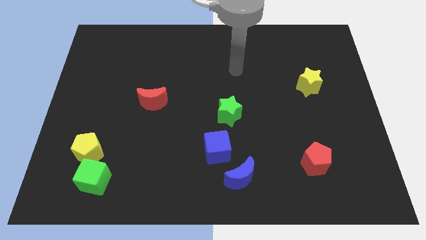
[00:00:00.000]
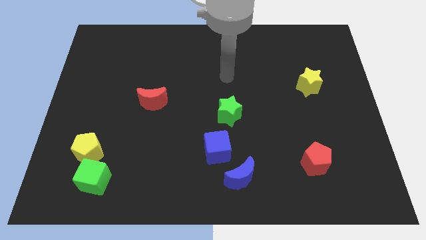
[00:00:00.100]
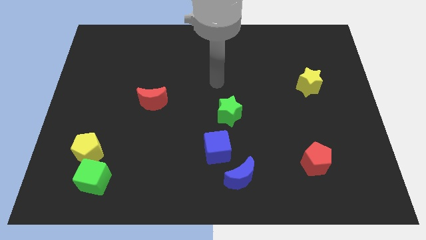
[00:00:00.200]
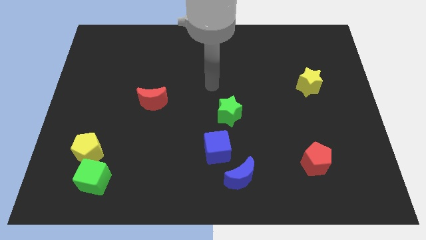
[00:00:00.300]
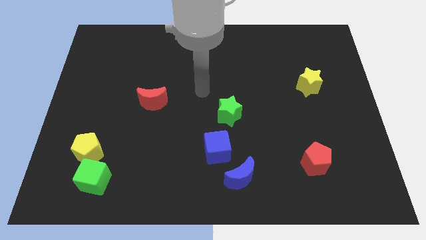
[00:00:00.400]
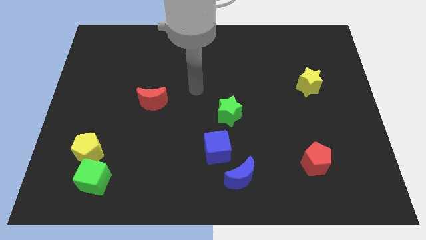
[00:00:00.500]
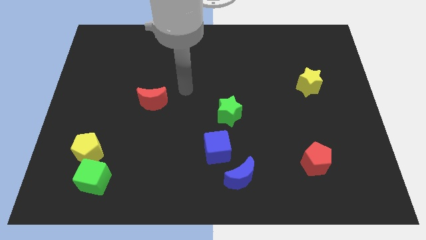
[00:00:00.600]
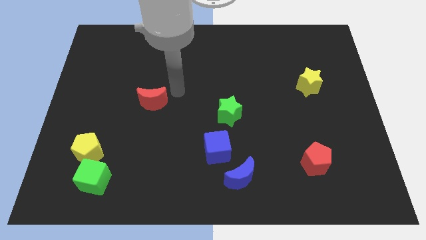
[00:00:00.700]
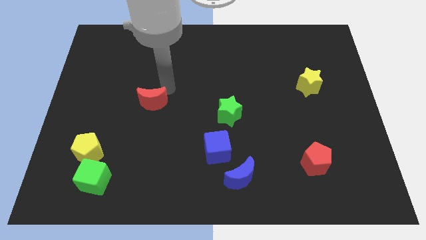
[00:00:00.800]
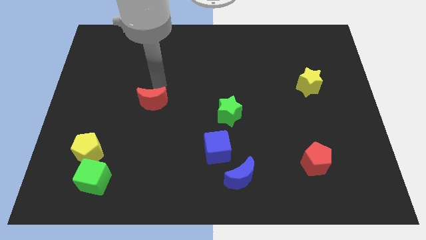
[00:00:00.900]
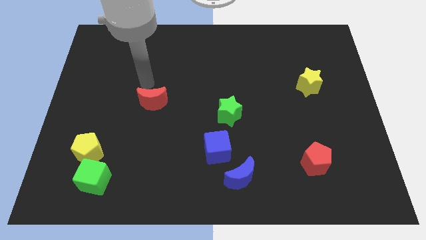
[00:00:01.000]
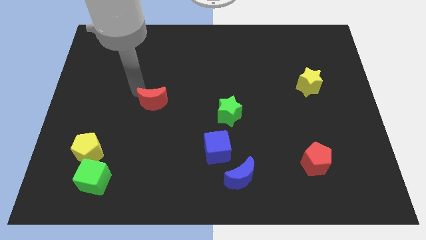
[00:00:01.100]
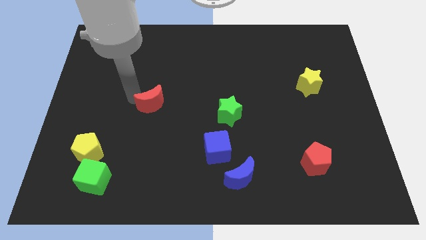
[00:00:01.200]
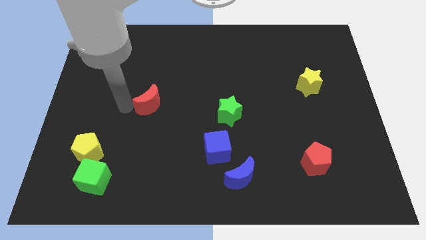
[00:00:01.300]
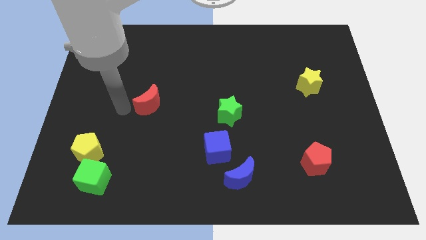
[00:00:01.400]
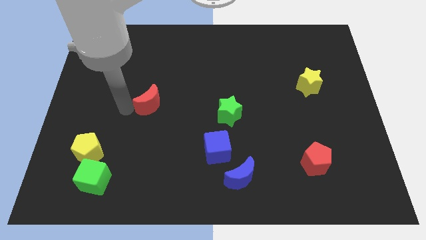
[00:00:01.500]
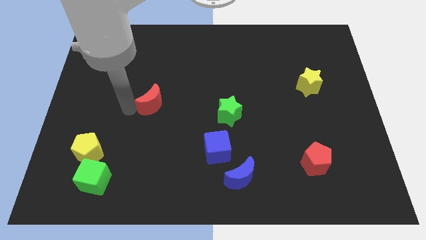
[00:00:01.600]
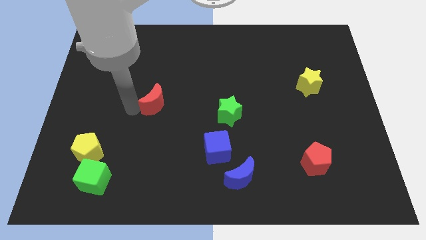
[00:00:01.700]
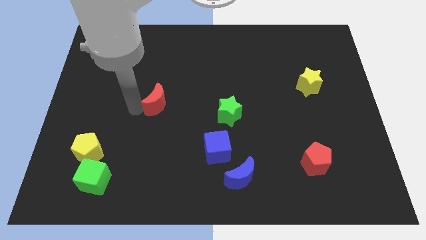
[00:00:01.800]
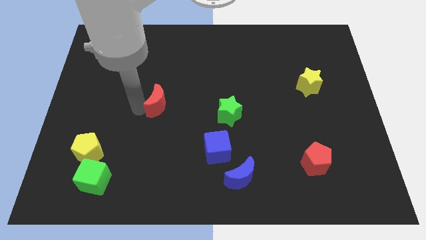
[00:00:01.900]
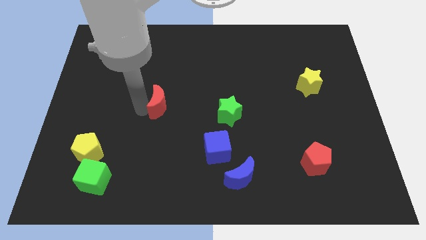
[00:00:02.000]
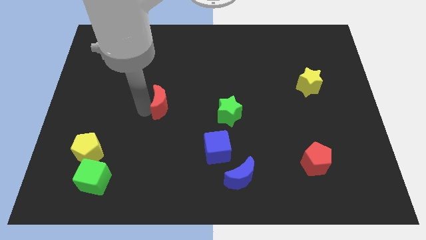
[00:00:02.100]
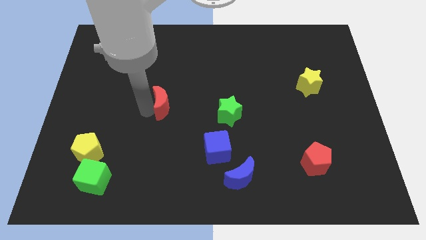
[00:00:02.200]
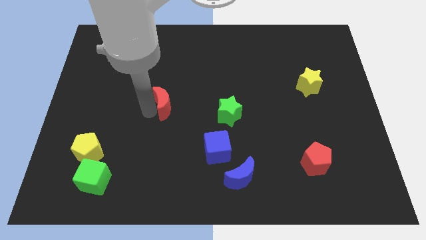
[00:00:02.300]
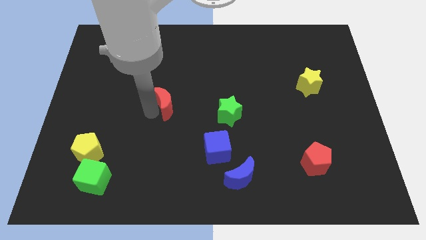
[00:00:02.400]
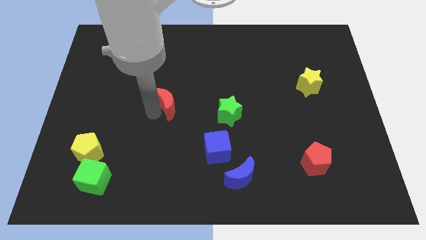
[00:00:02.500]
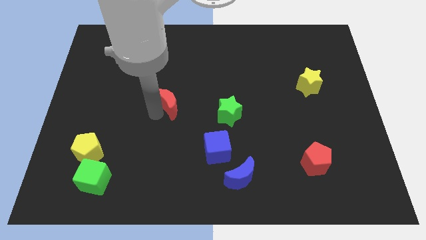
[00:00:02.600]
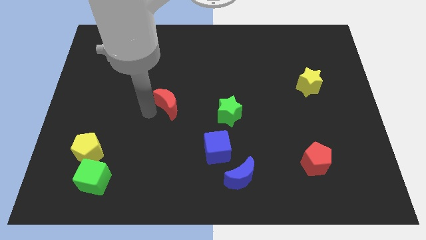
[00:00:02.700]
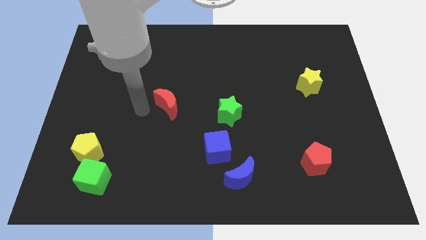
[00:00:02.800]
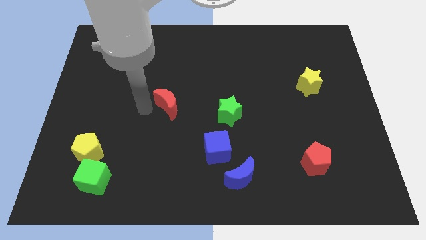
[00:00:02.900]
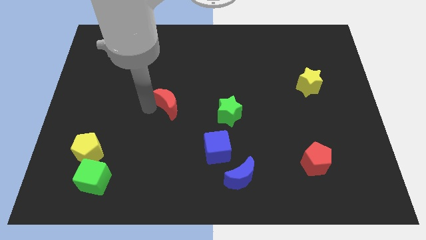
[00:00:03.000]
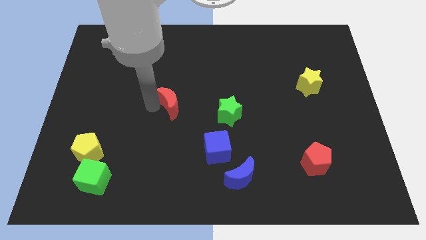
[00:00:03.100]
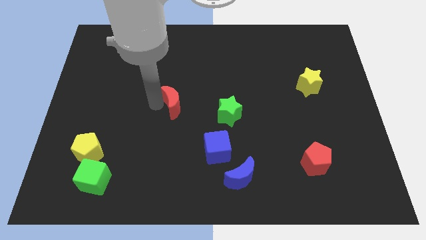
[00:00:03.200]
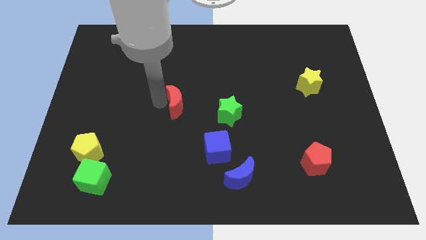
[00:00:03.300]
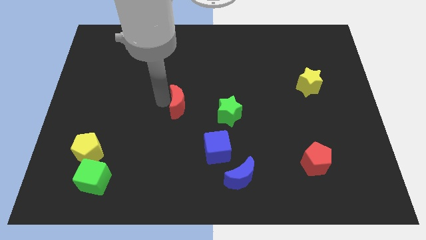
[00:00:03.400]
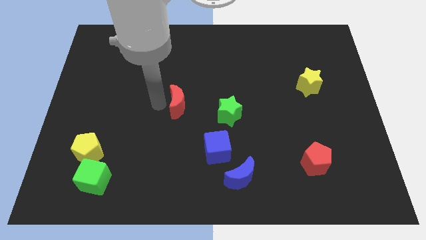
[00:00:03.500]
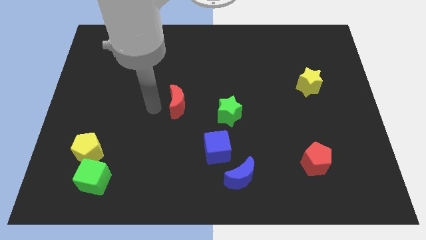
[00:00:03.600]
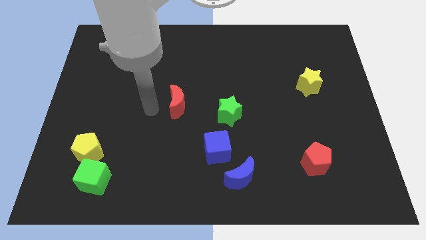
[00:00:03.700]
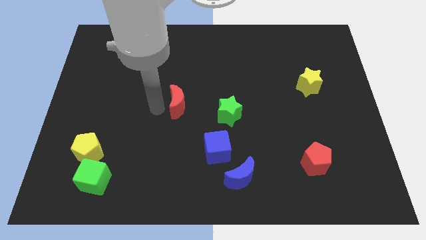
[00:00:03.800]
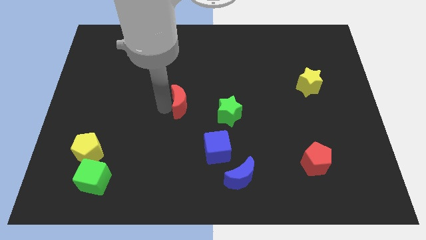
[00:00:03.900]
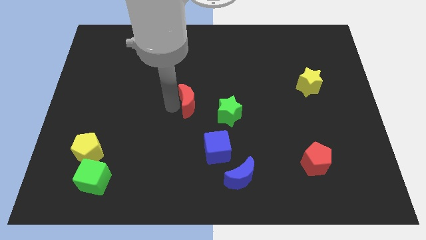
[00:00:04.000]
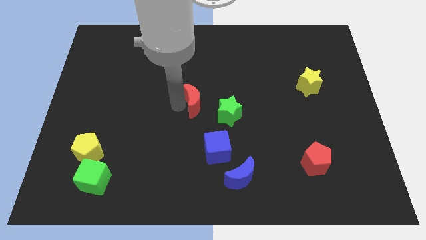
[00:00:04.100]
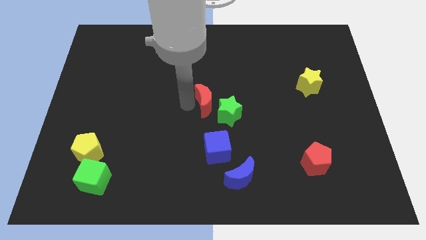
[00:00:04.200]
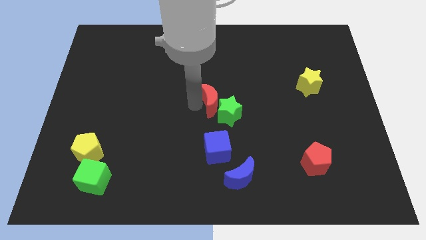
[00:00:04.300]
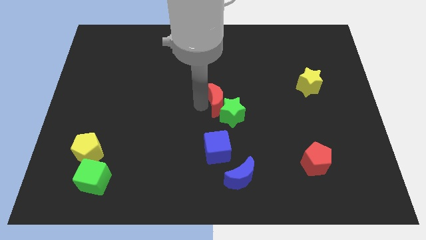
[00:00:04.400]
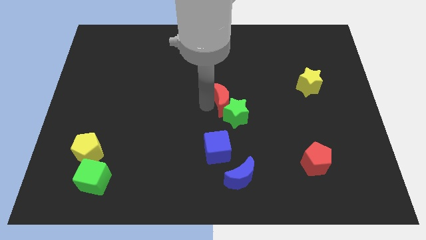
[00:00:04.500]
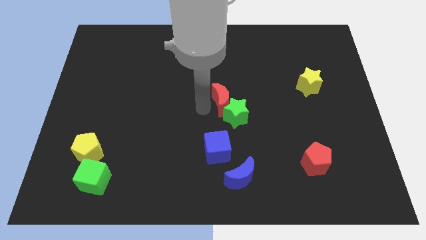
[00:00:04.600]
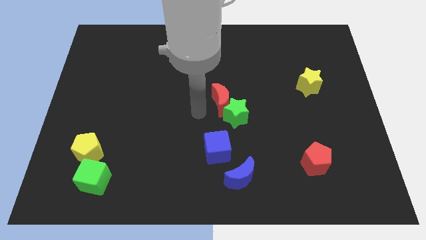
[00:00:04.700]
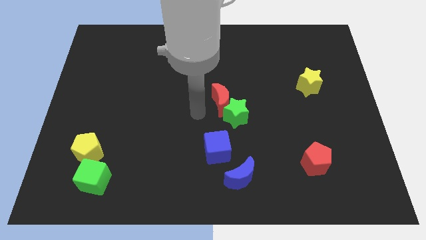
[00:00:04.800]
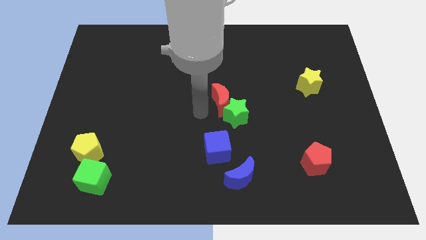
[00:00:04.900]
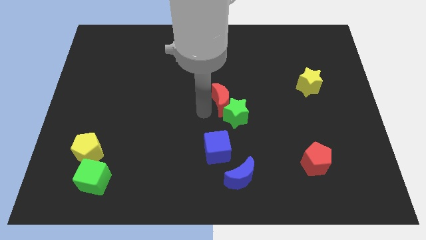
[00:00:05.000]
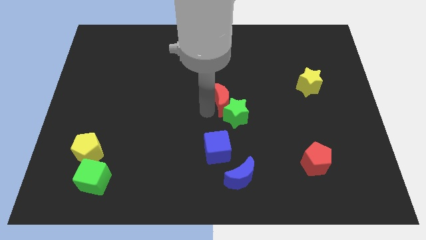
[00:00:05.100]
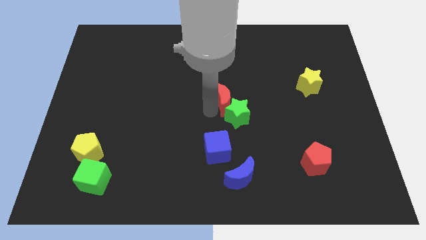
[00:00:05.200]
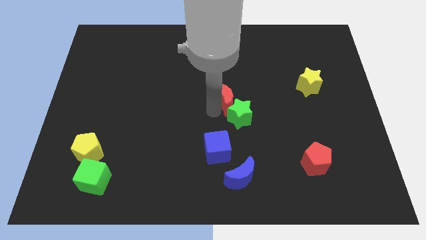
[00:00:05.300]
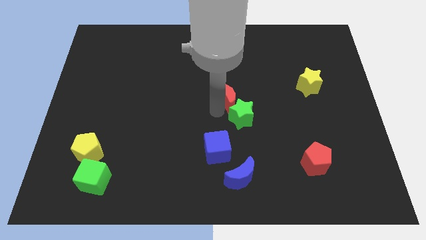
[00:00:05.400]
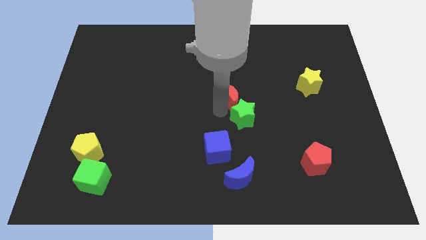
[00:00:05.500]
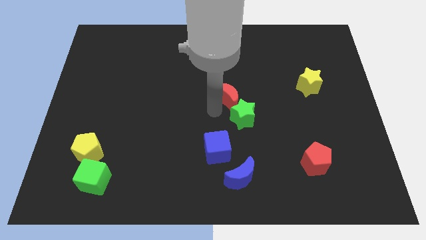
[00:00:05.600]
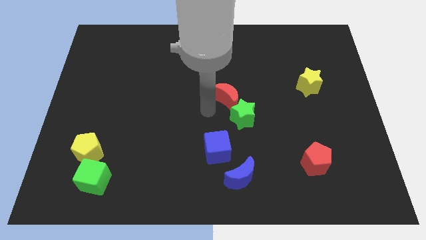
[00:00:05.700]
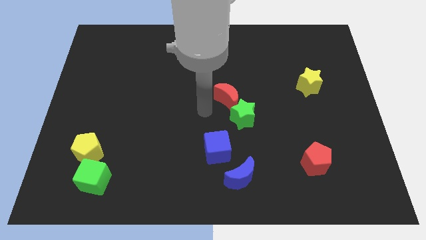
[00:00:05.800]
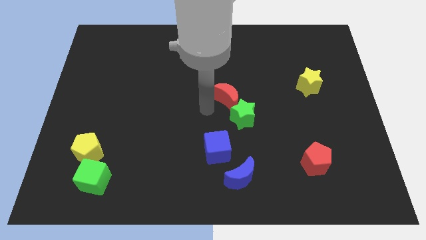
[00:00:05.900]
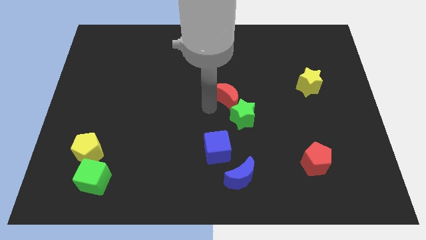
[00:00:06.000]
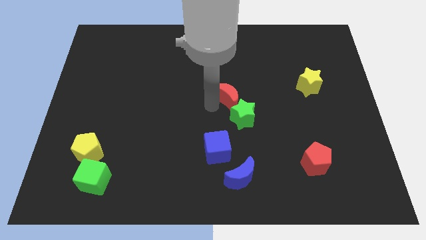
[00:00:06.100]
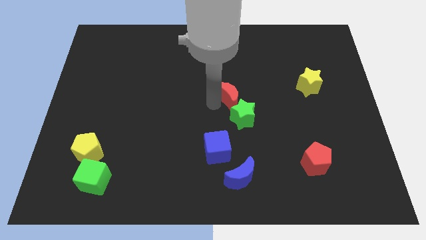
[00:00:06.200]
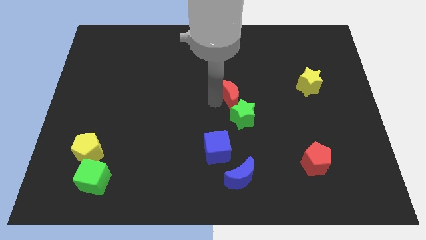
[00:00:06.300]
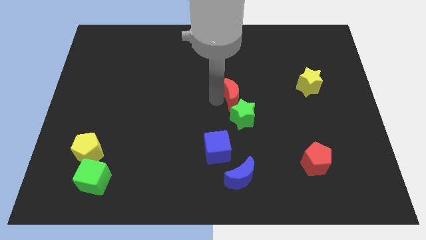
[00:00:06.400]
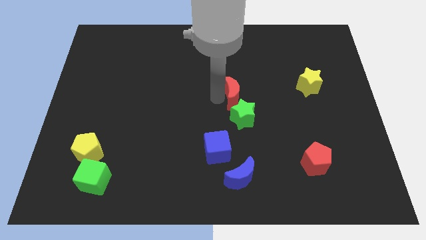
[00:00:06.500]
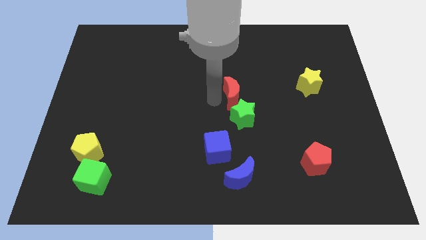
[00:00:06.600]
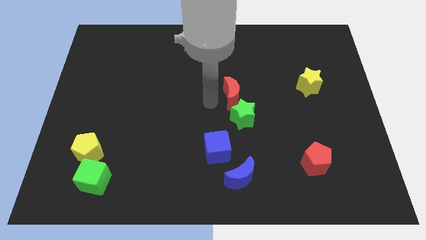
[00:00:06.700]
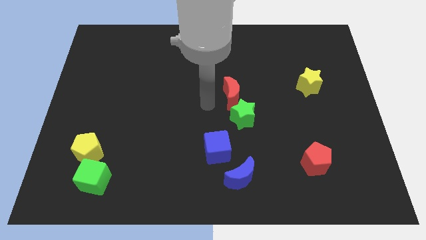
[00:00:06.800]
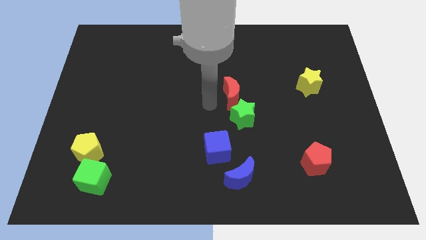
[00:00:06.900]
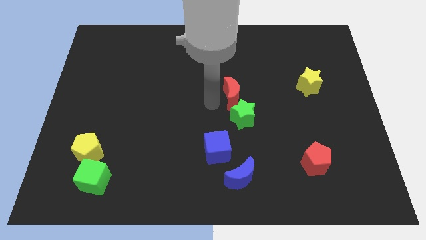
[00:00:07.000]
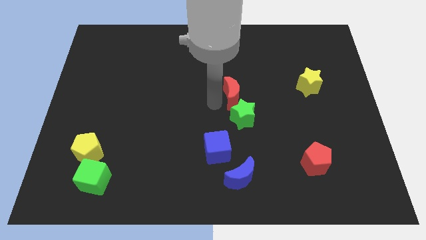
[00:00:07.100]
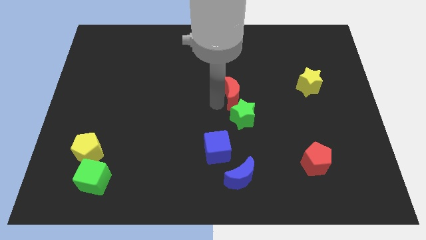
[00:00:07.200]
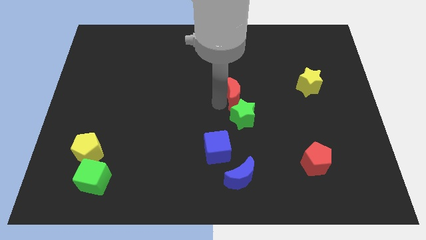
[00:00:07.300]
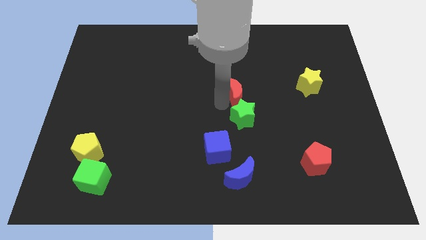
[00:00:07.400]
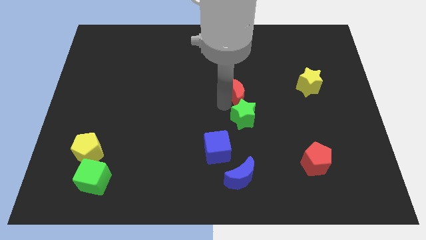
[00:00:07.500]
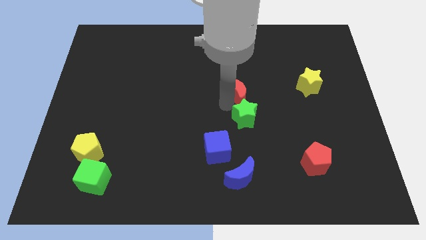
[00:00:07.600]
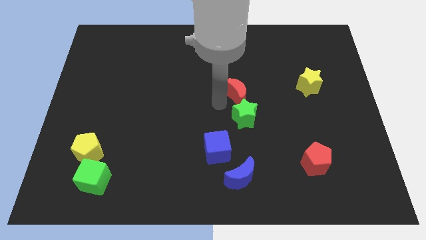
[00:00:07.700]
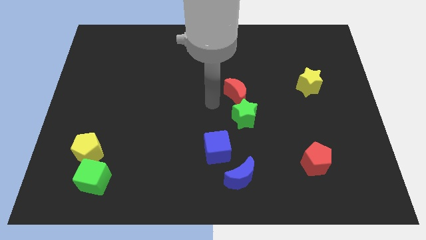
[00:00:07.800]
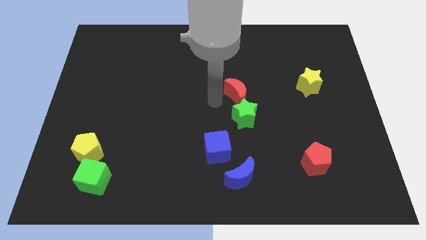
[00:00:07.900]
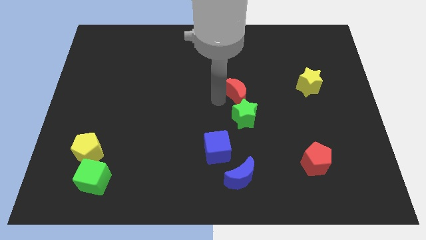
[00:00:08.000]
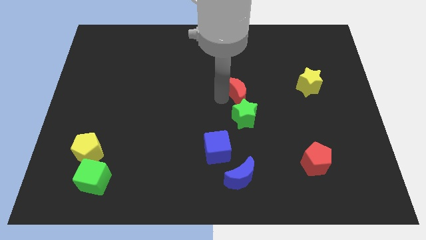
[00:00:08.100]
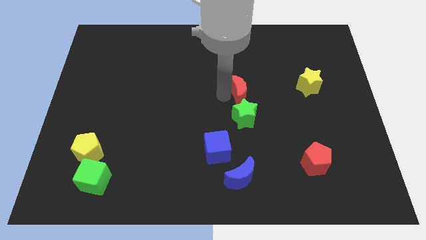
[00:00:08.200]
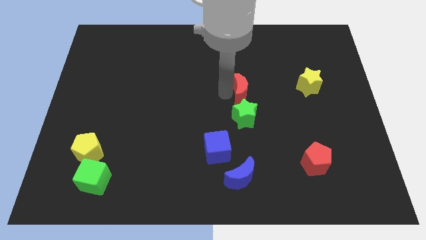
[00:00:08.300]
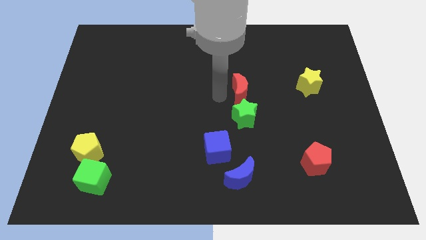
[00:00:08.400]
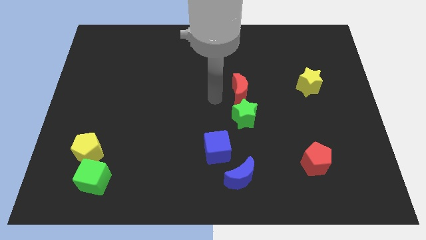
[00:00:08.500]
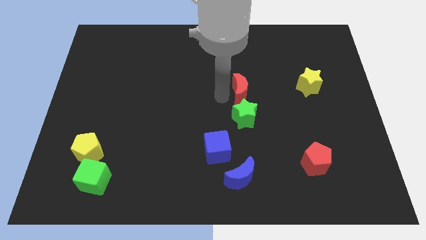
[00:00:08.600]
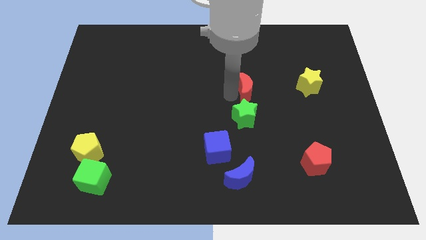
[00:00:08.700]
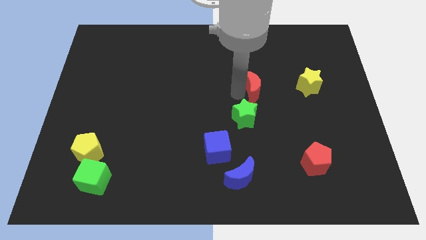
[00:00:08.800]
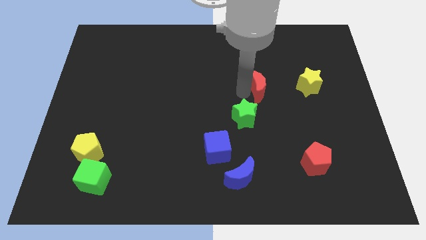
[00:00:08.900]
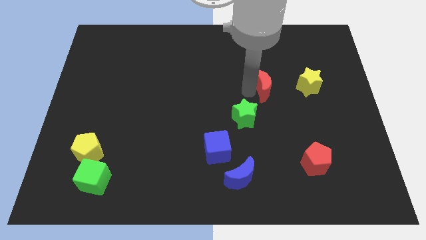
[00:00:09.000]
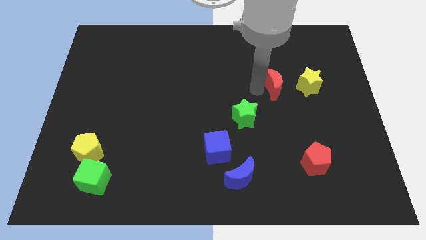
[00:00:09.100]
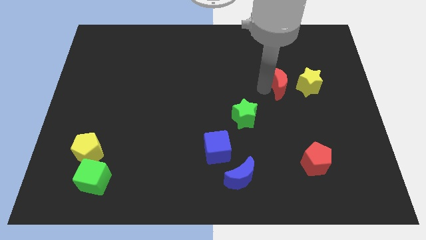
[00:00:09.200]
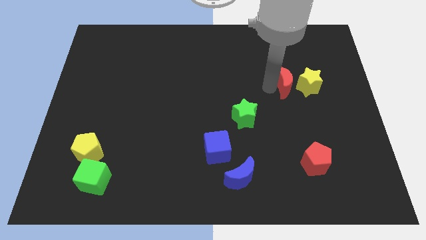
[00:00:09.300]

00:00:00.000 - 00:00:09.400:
slide the red moon to the yellow star
